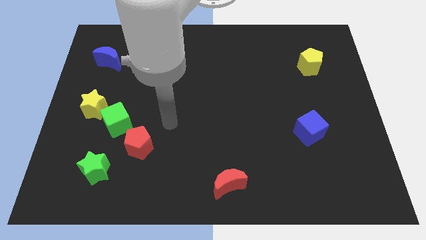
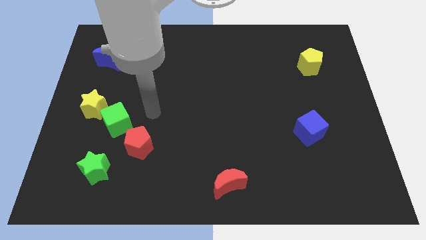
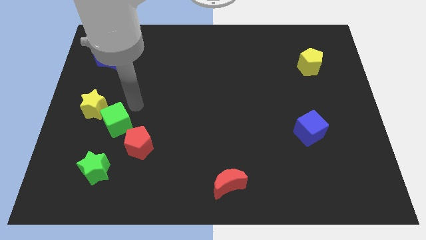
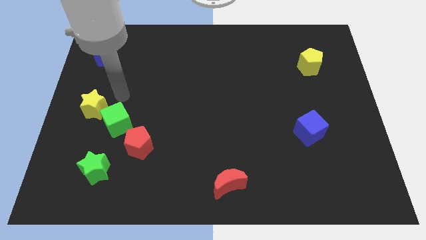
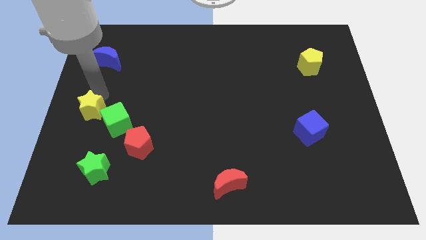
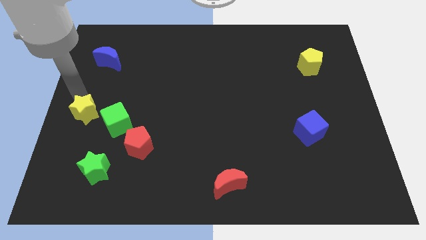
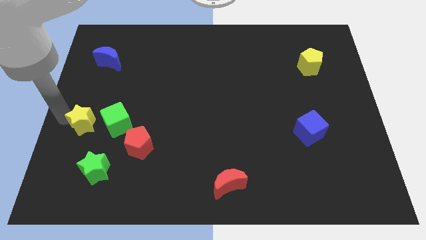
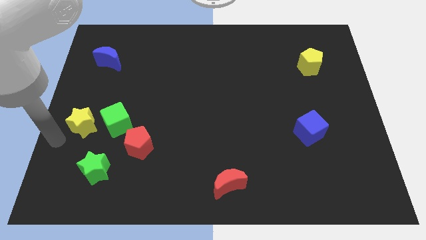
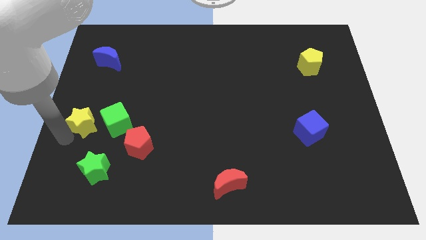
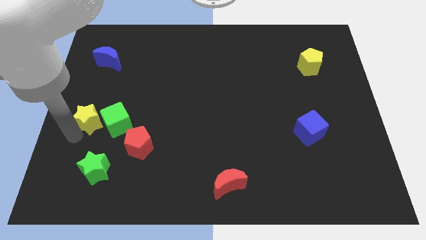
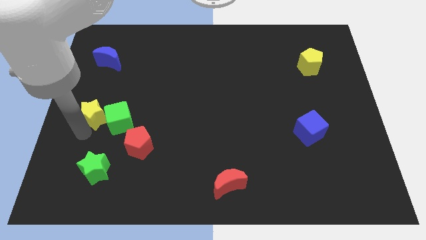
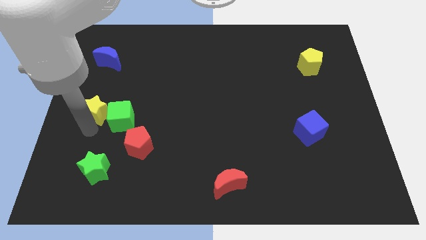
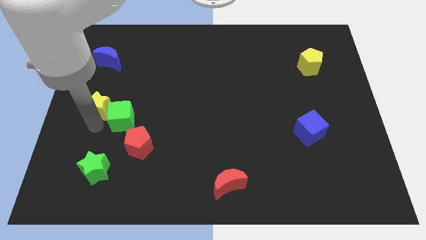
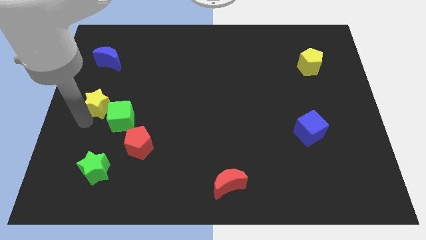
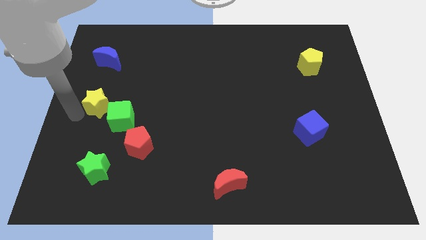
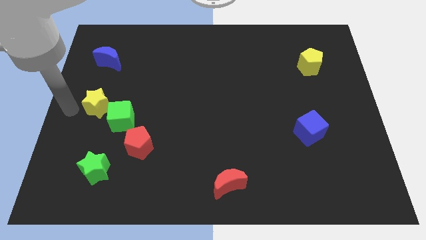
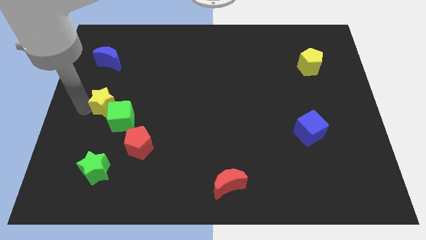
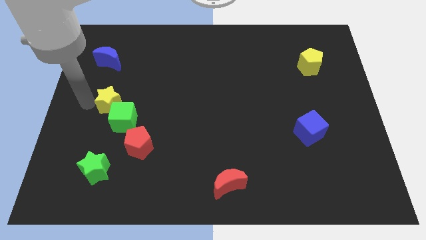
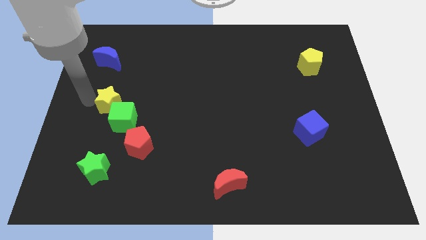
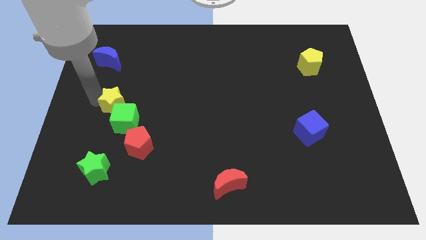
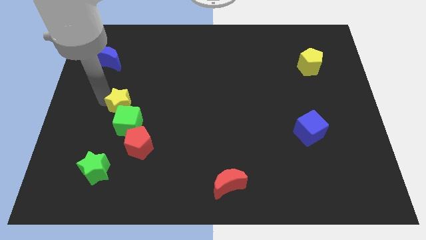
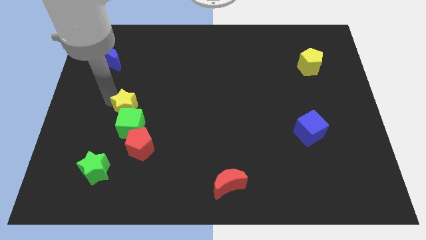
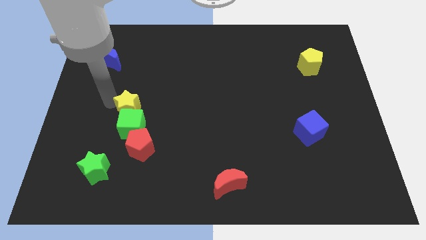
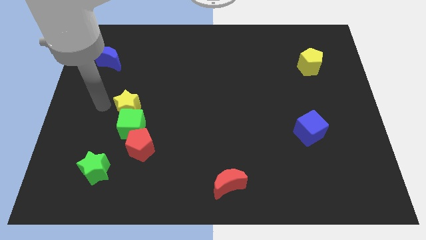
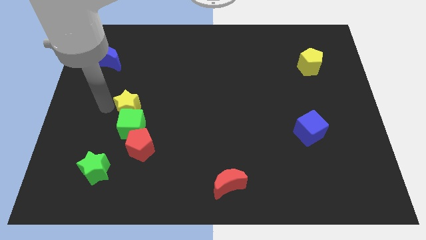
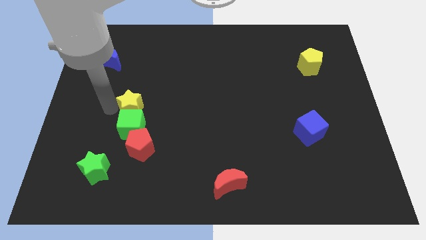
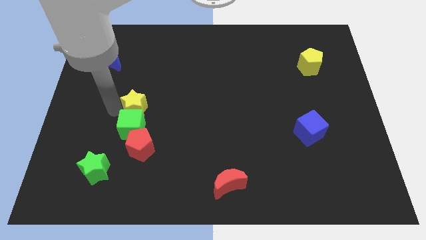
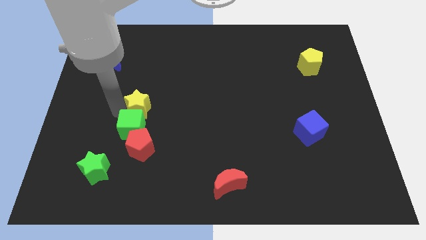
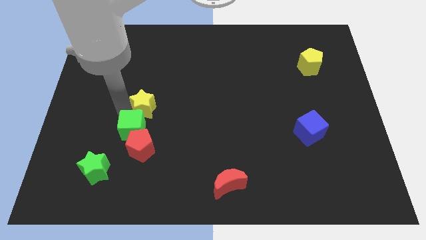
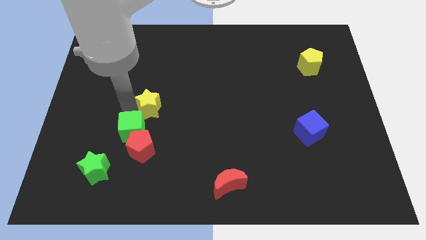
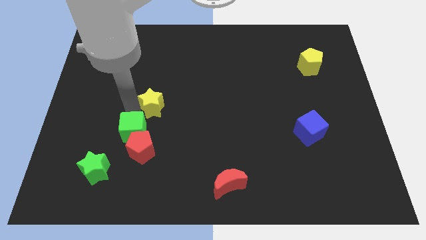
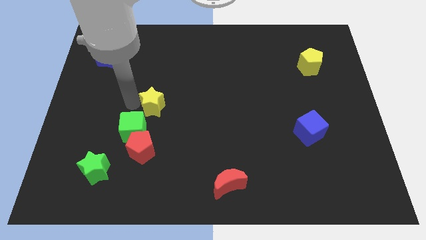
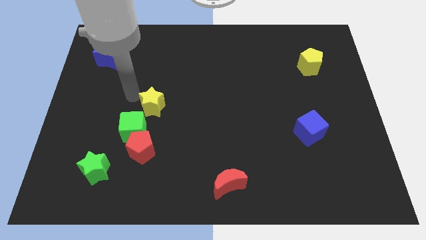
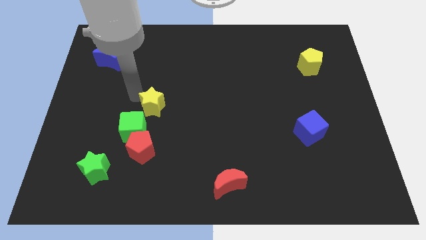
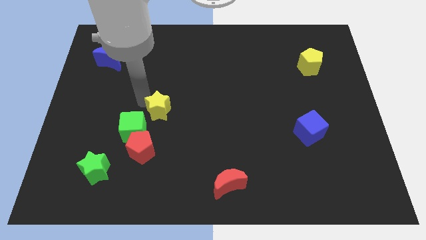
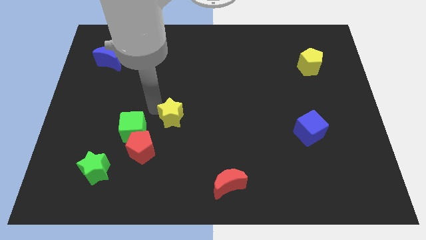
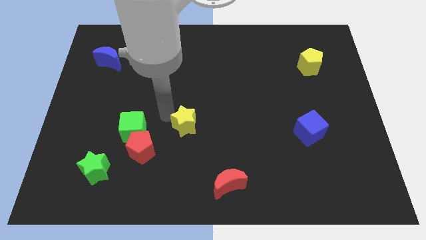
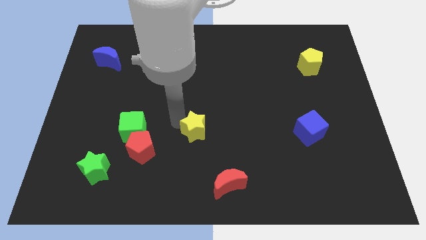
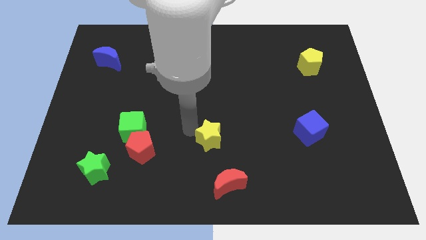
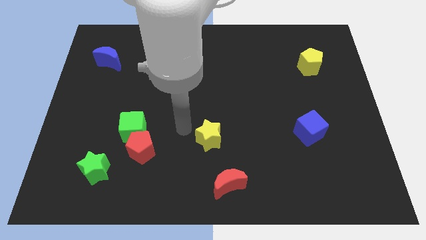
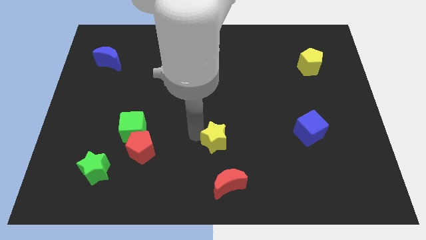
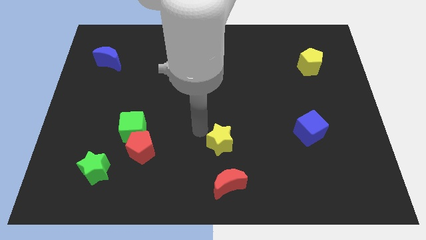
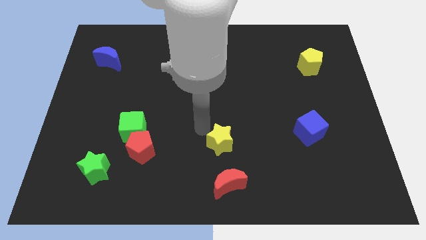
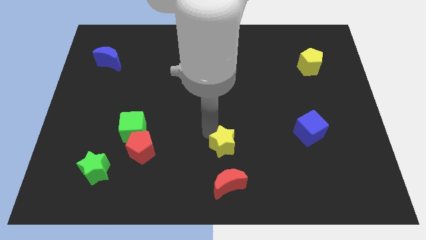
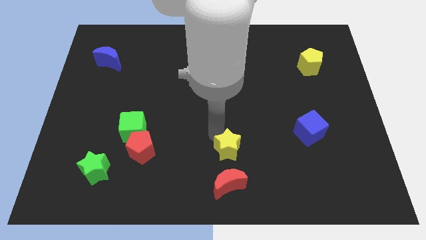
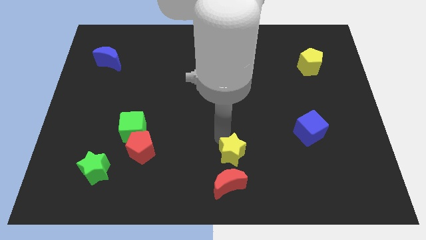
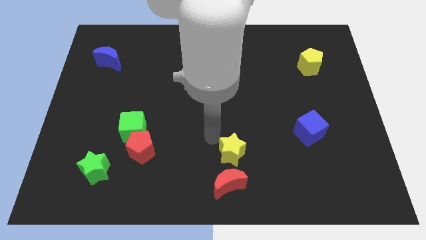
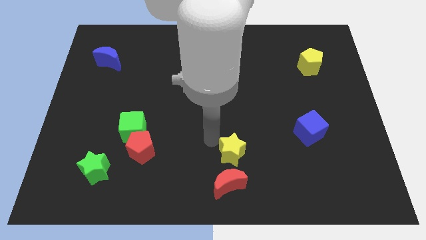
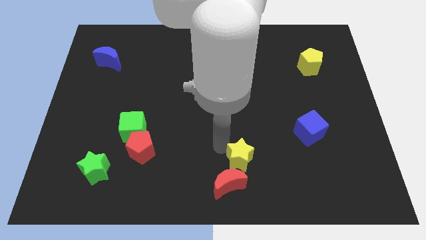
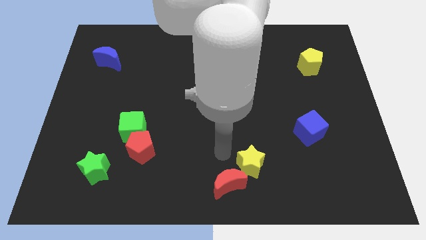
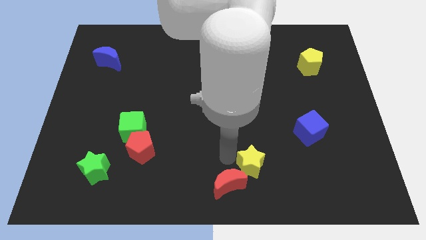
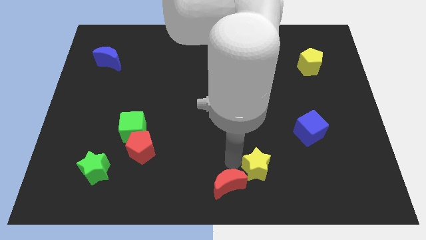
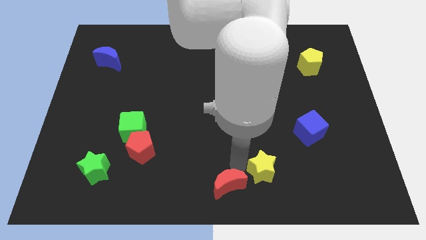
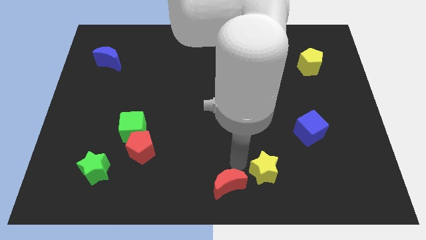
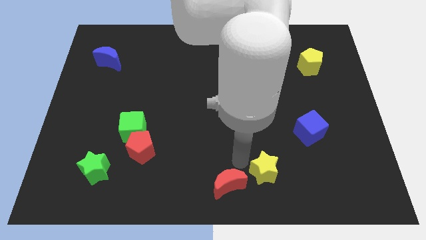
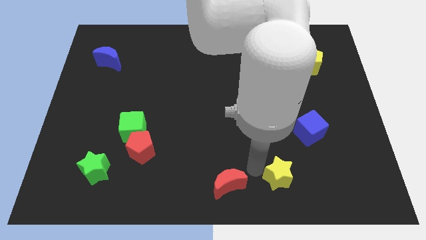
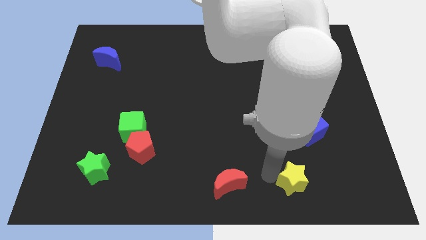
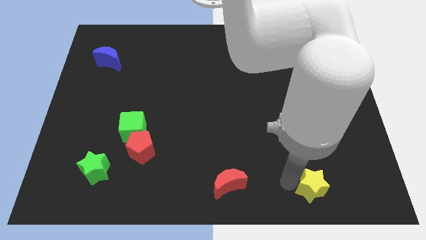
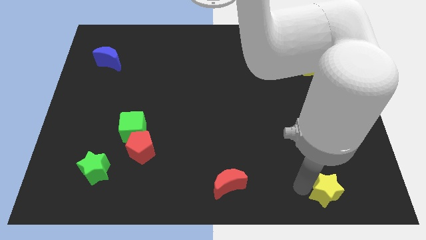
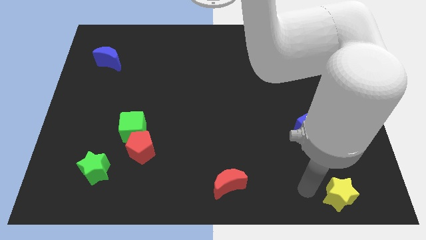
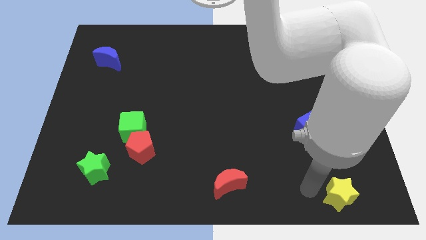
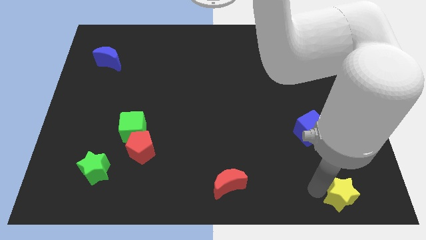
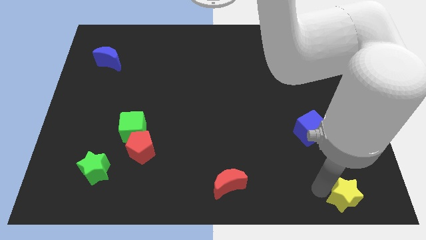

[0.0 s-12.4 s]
move the yellow star to the bottom right corner
